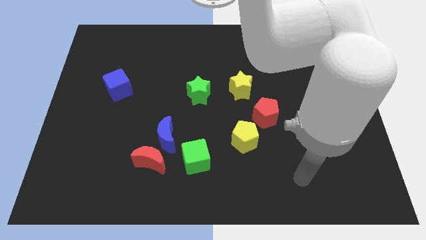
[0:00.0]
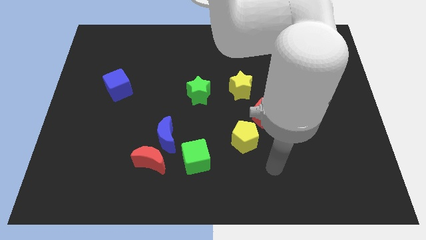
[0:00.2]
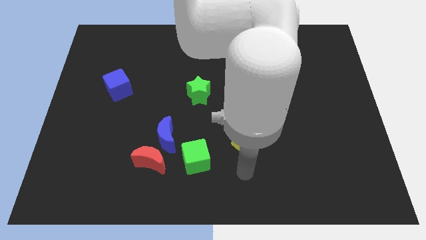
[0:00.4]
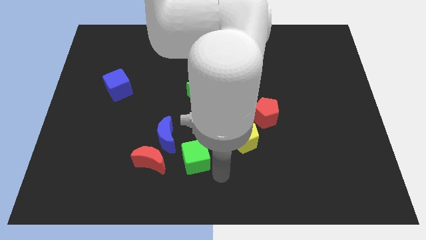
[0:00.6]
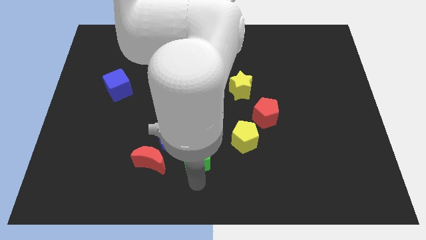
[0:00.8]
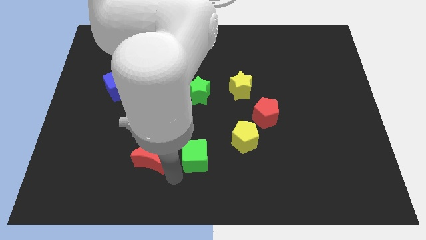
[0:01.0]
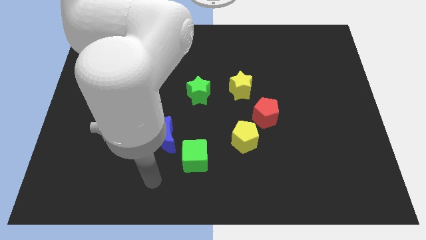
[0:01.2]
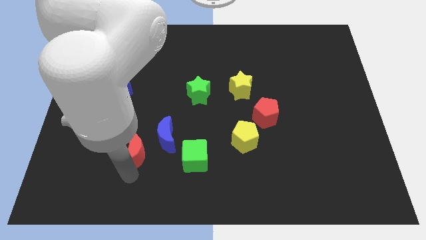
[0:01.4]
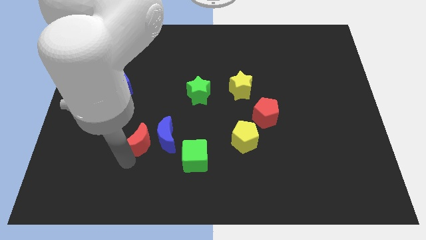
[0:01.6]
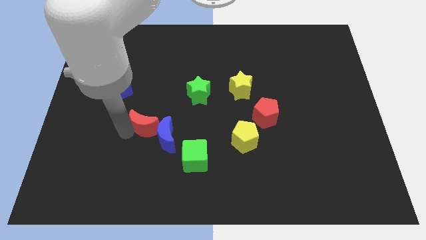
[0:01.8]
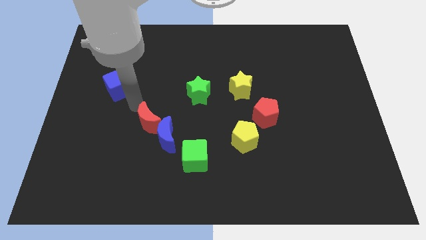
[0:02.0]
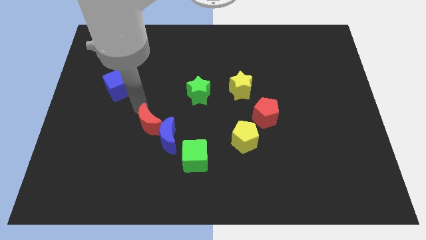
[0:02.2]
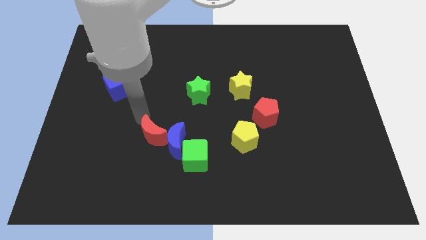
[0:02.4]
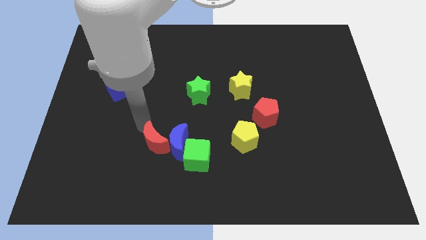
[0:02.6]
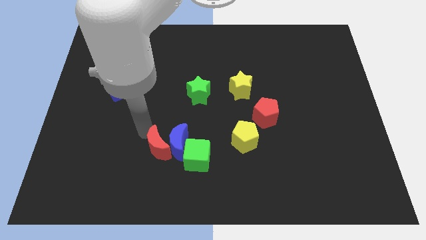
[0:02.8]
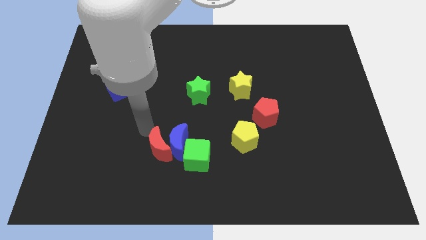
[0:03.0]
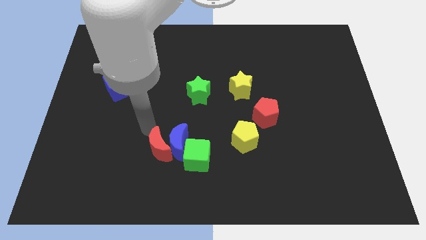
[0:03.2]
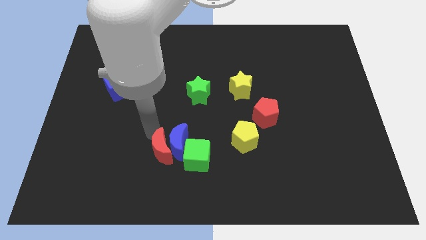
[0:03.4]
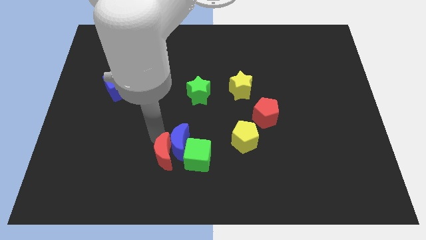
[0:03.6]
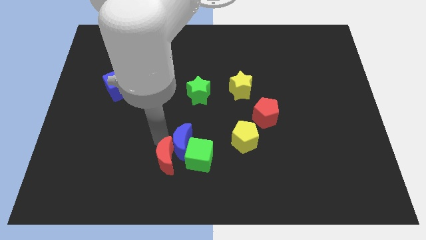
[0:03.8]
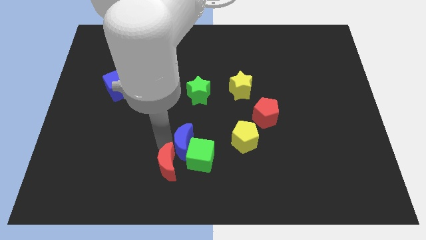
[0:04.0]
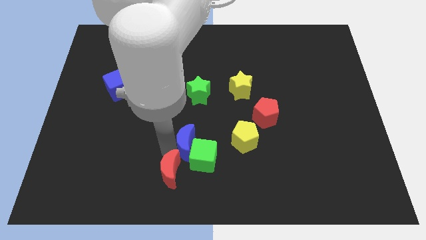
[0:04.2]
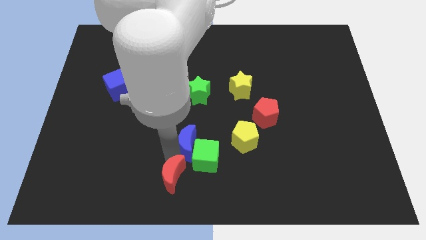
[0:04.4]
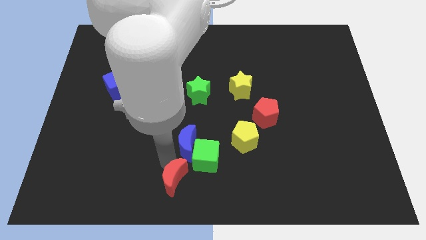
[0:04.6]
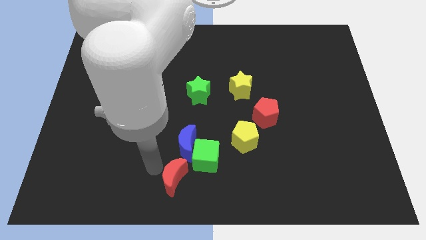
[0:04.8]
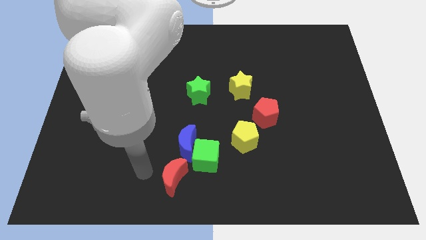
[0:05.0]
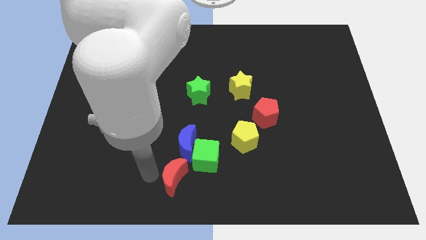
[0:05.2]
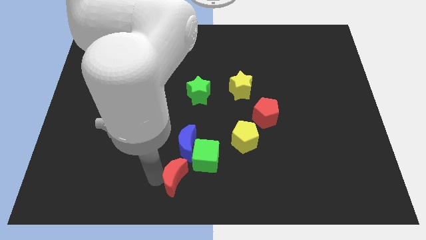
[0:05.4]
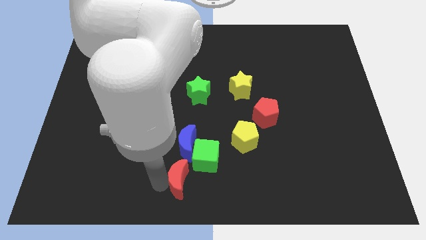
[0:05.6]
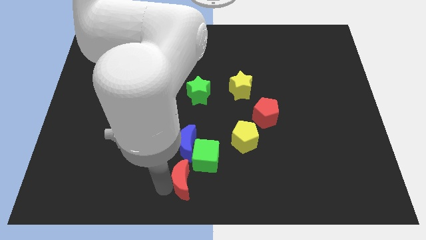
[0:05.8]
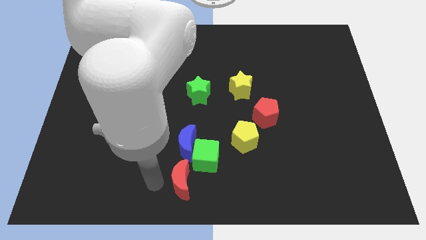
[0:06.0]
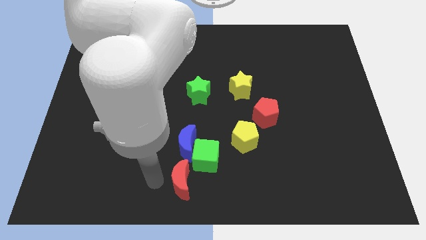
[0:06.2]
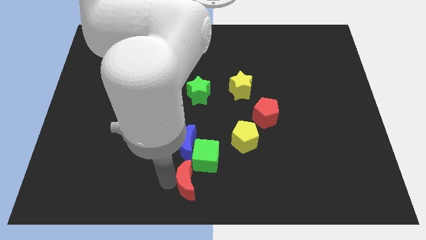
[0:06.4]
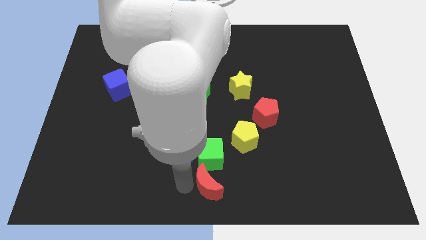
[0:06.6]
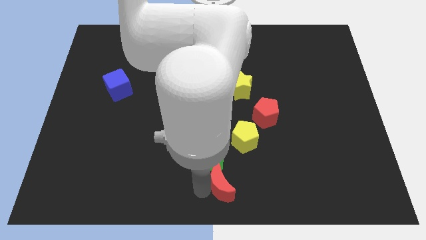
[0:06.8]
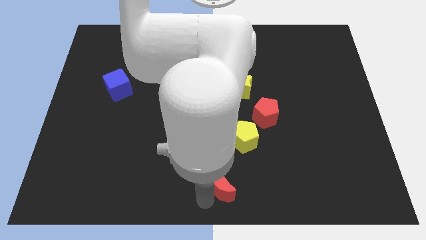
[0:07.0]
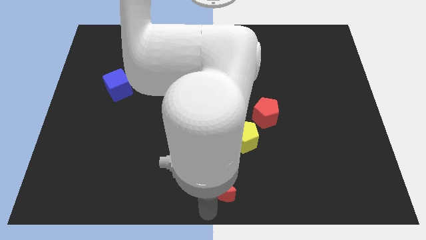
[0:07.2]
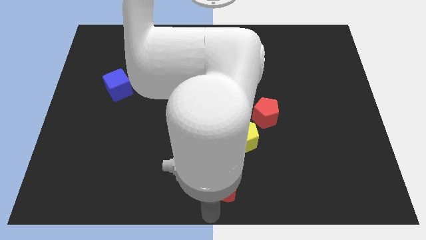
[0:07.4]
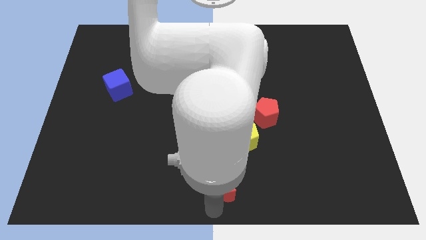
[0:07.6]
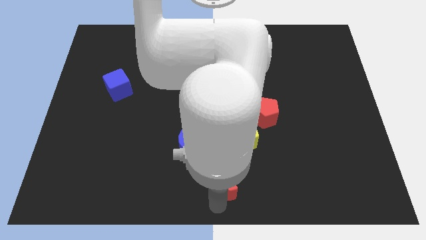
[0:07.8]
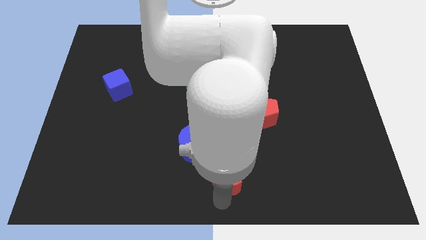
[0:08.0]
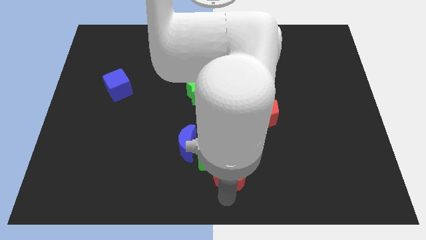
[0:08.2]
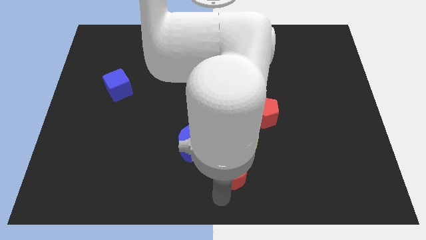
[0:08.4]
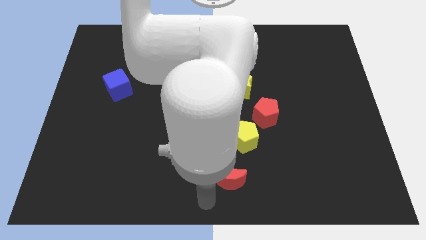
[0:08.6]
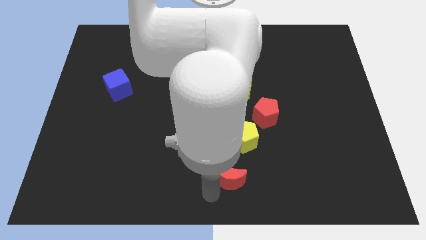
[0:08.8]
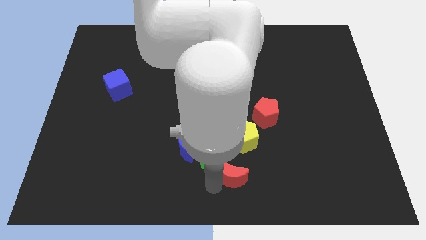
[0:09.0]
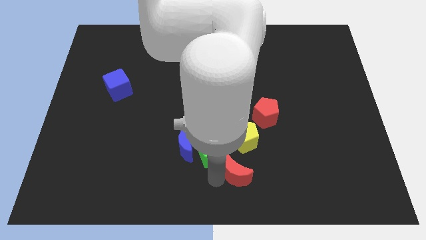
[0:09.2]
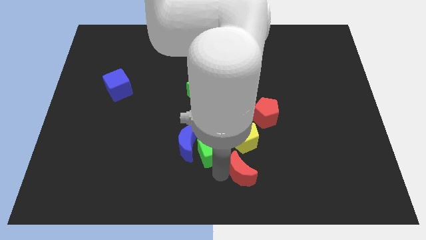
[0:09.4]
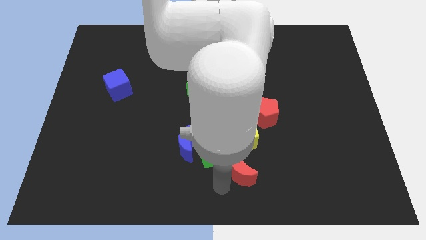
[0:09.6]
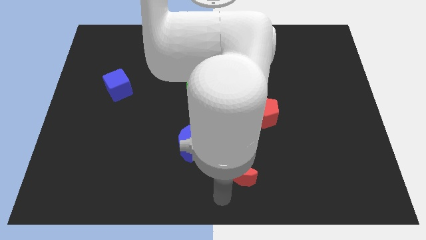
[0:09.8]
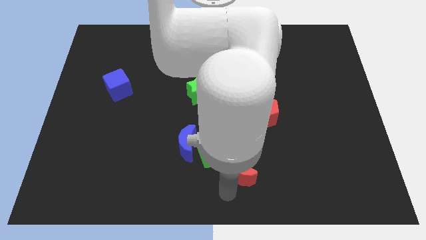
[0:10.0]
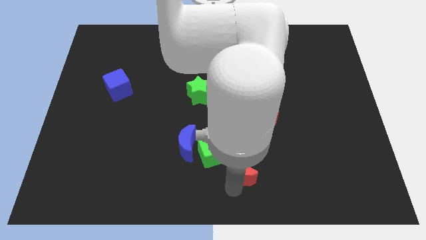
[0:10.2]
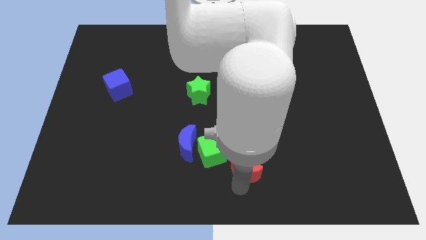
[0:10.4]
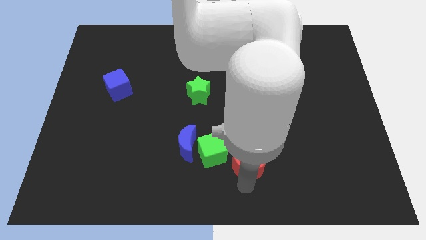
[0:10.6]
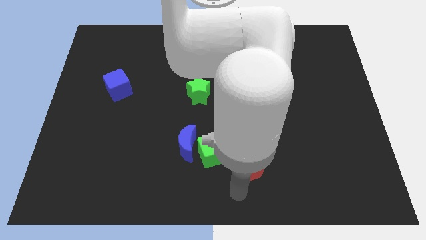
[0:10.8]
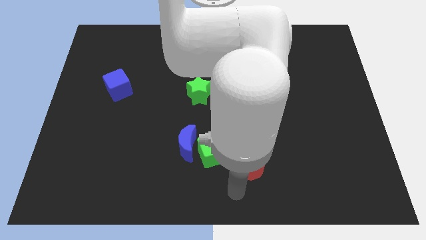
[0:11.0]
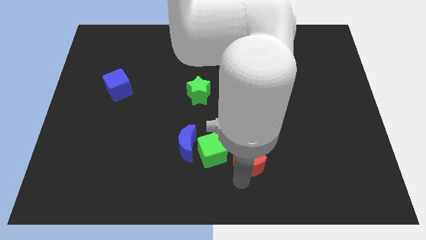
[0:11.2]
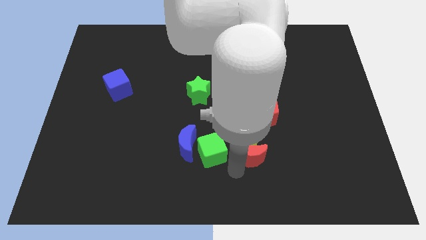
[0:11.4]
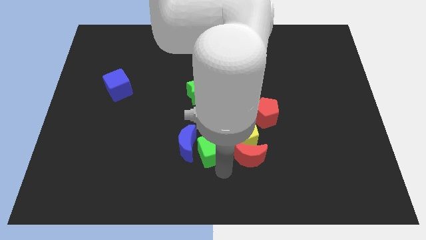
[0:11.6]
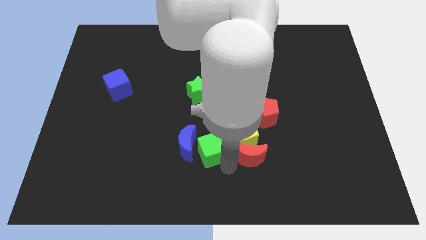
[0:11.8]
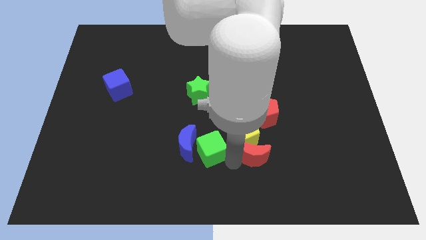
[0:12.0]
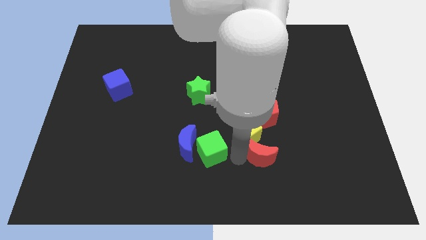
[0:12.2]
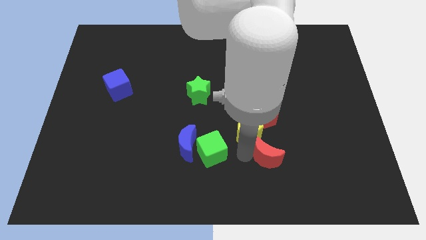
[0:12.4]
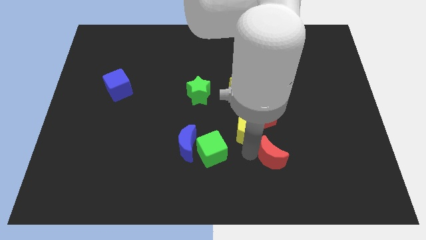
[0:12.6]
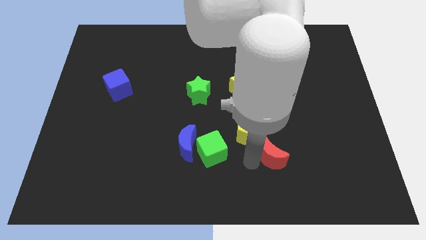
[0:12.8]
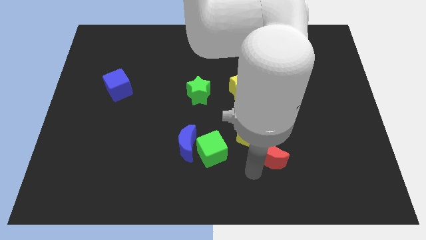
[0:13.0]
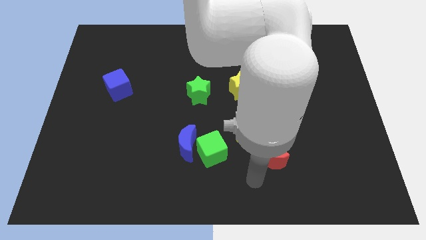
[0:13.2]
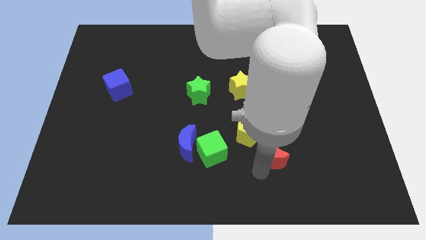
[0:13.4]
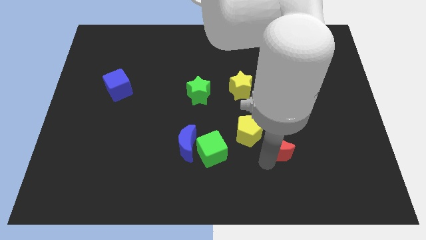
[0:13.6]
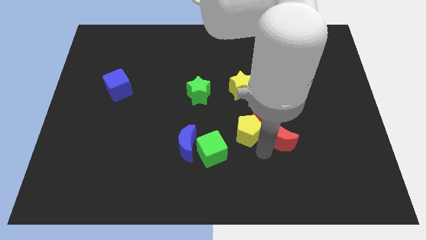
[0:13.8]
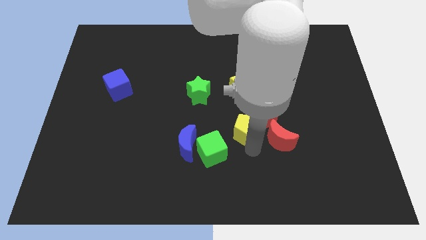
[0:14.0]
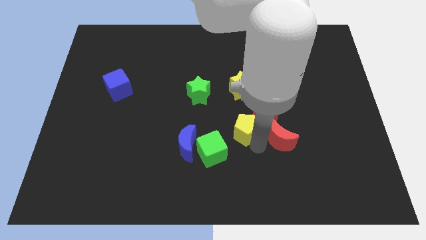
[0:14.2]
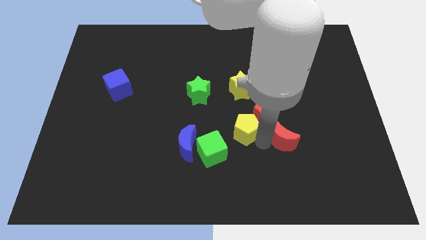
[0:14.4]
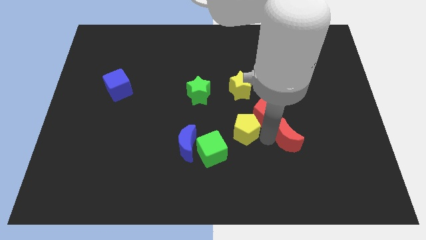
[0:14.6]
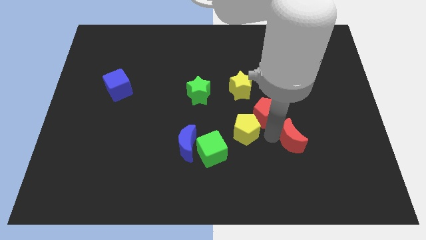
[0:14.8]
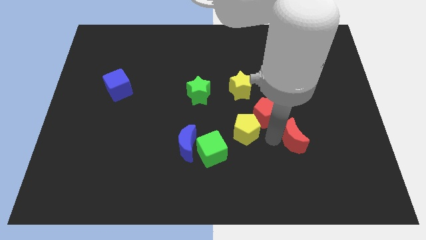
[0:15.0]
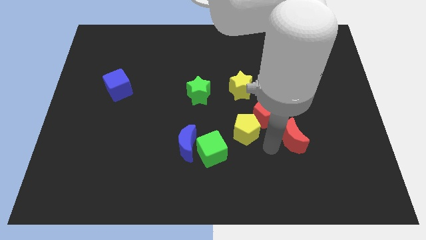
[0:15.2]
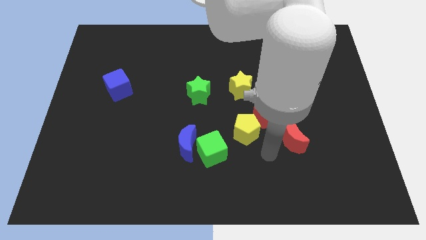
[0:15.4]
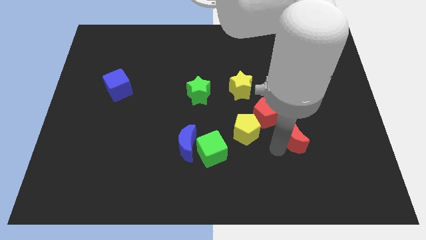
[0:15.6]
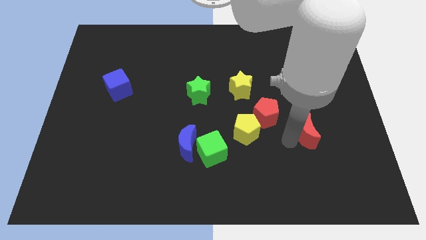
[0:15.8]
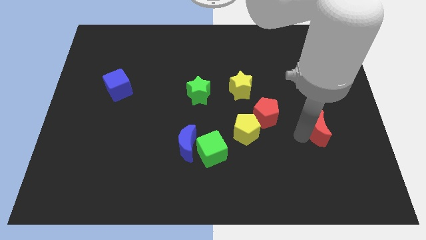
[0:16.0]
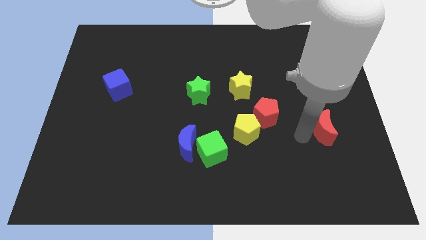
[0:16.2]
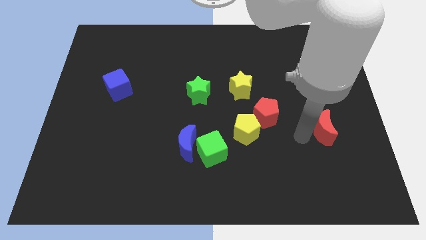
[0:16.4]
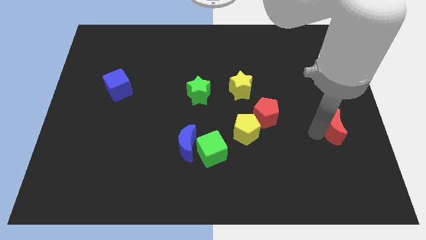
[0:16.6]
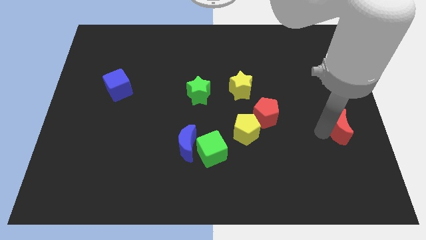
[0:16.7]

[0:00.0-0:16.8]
move the red moon to the center right
